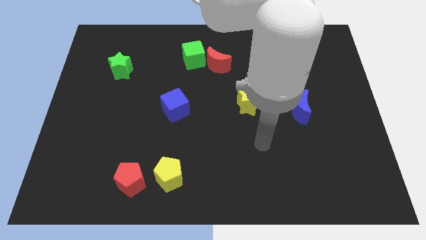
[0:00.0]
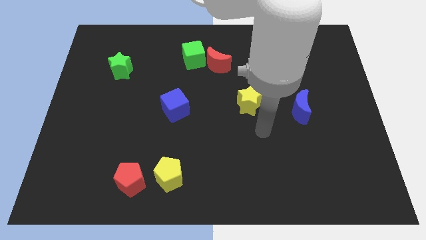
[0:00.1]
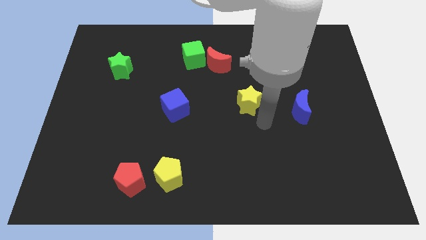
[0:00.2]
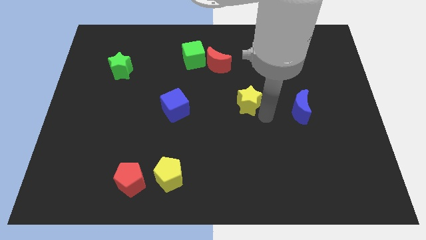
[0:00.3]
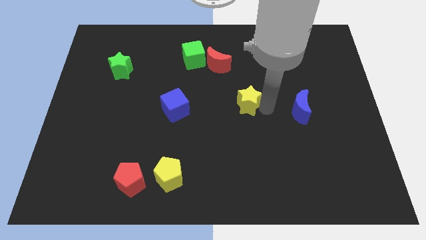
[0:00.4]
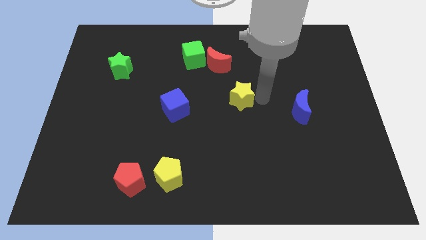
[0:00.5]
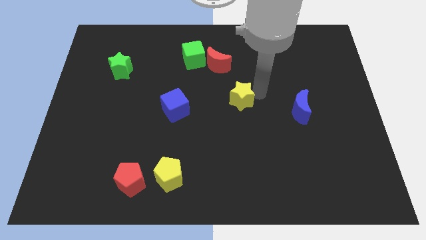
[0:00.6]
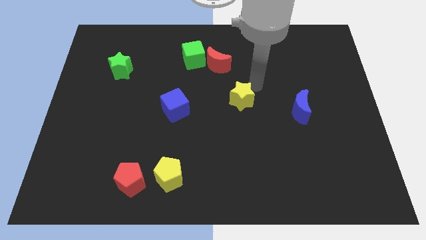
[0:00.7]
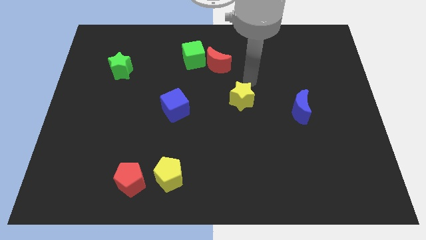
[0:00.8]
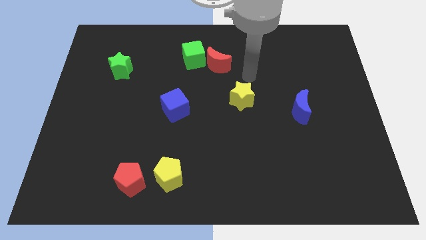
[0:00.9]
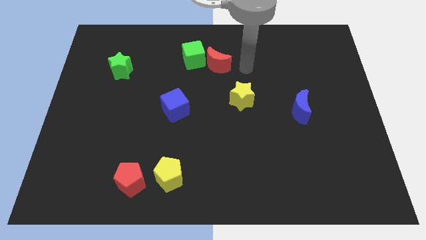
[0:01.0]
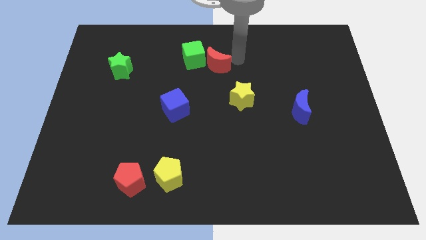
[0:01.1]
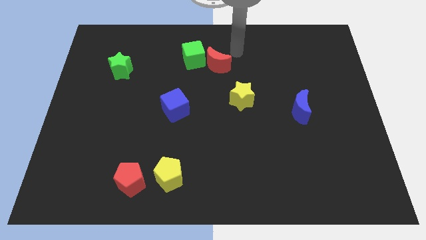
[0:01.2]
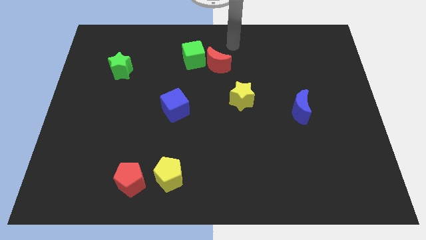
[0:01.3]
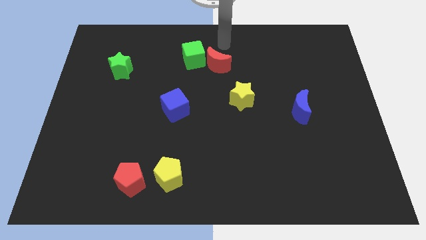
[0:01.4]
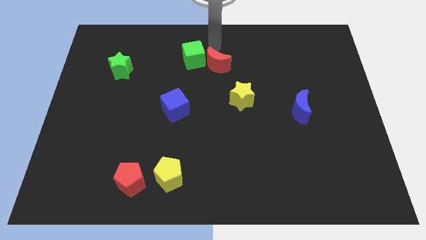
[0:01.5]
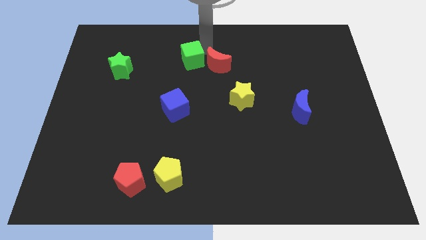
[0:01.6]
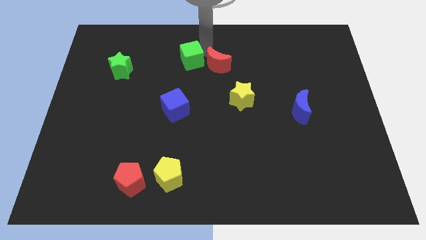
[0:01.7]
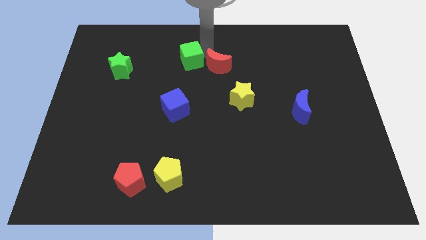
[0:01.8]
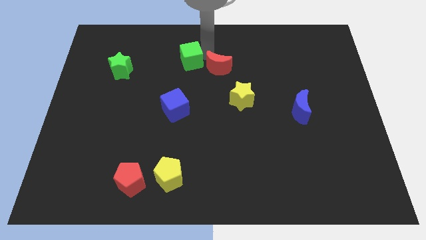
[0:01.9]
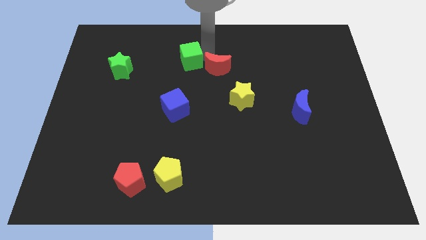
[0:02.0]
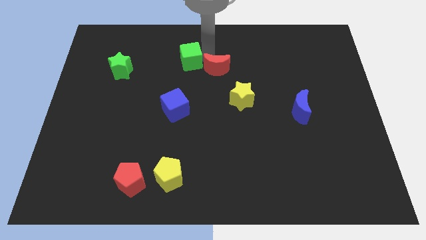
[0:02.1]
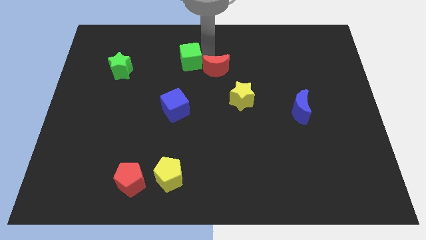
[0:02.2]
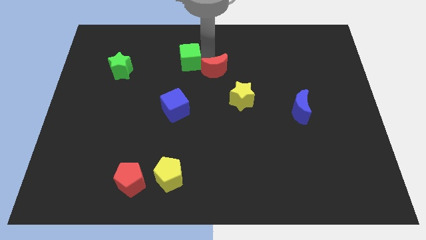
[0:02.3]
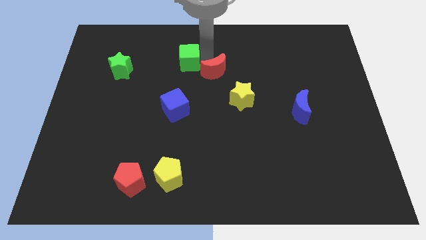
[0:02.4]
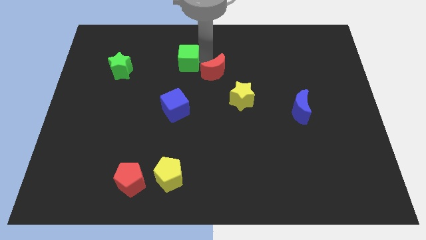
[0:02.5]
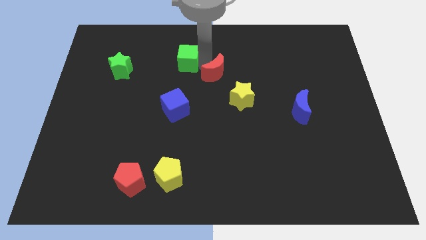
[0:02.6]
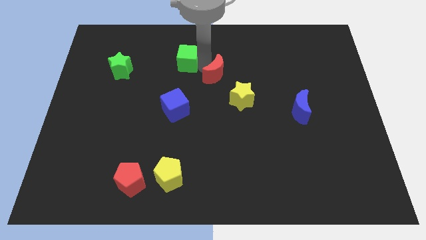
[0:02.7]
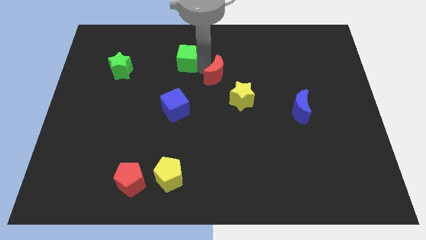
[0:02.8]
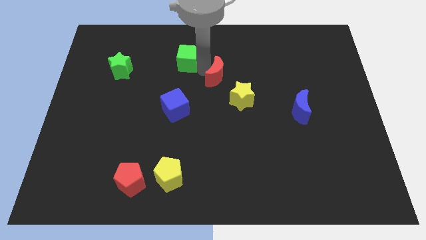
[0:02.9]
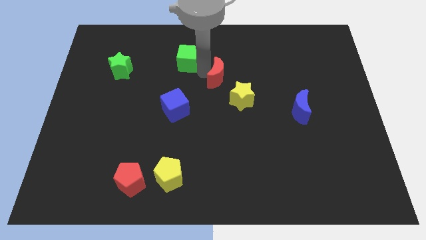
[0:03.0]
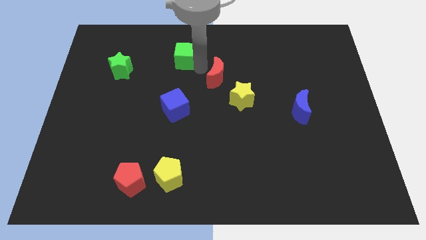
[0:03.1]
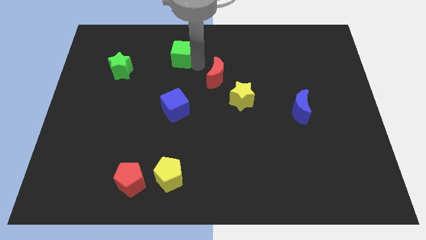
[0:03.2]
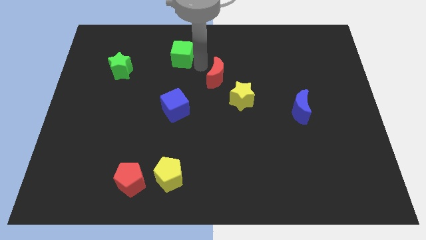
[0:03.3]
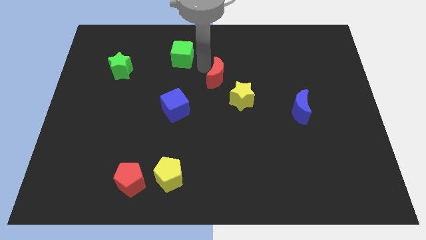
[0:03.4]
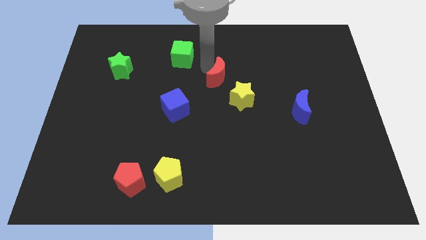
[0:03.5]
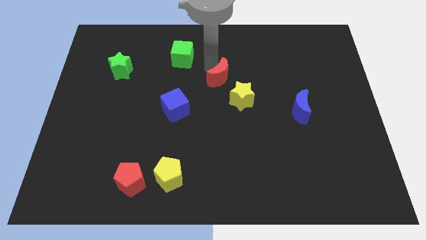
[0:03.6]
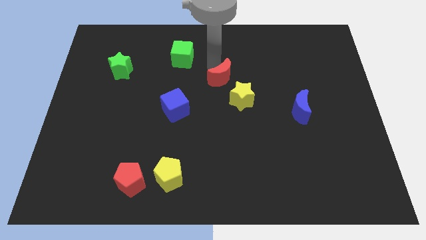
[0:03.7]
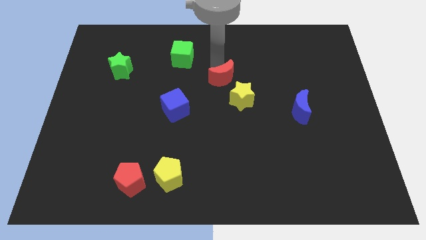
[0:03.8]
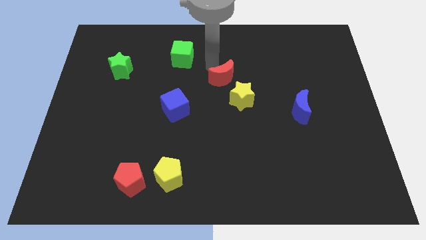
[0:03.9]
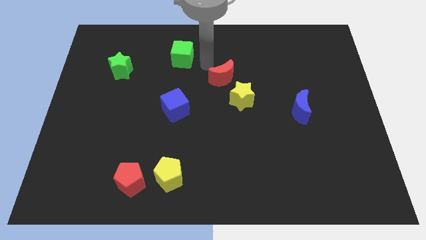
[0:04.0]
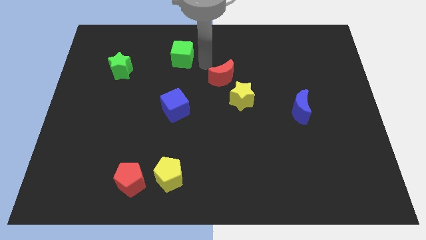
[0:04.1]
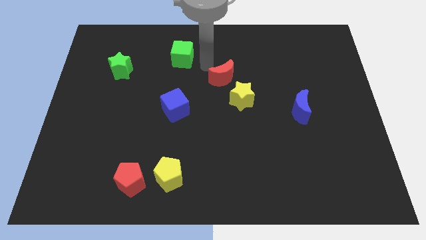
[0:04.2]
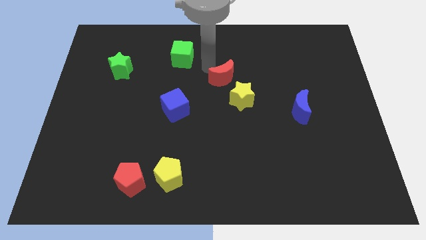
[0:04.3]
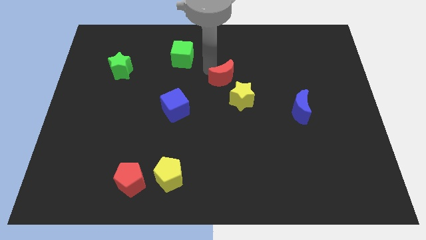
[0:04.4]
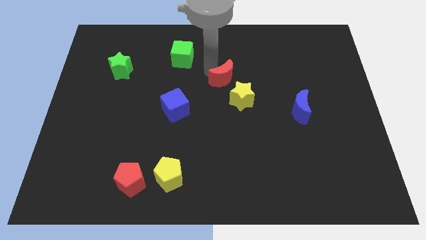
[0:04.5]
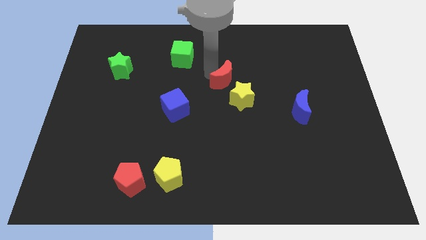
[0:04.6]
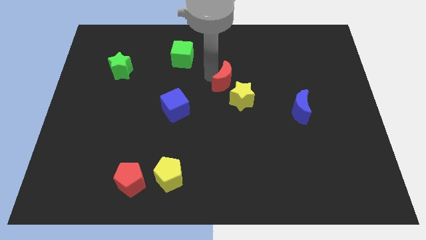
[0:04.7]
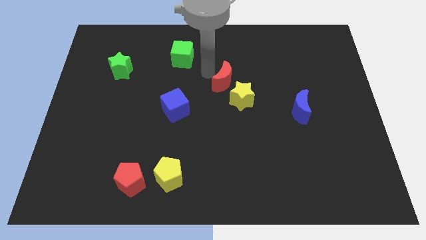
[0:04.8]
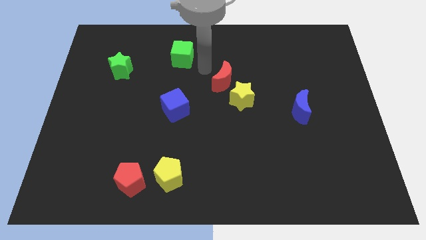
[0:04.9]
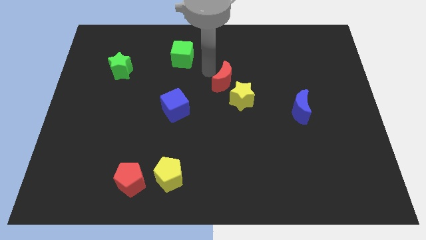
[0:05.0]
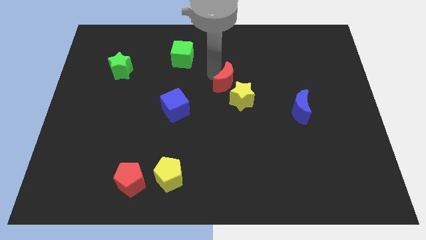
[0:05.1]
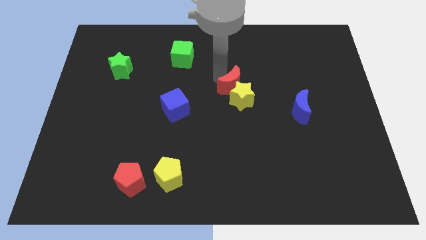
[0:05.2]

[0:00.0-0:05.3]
push the red moon towards the yellow star

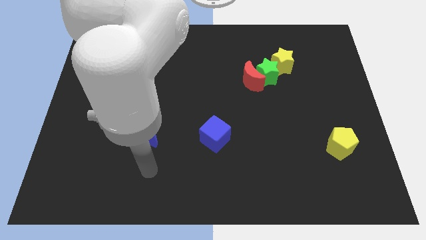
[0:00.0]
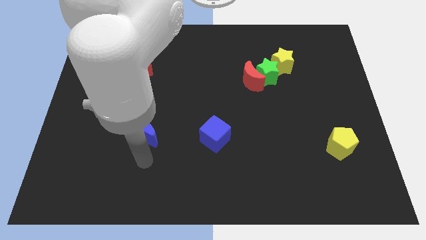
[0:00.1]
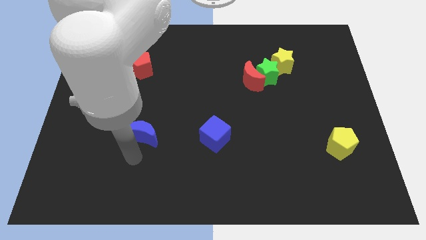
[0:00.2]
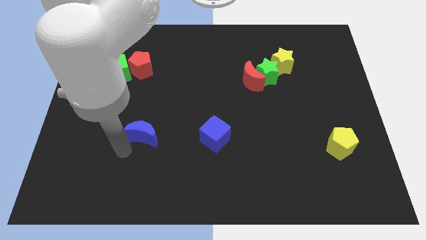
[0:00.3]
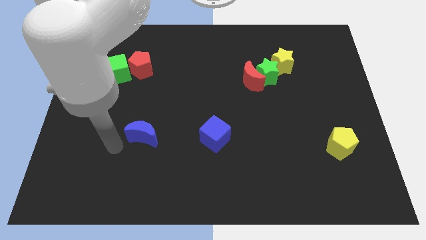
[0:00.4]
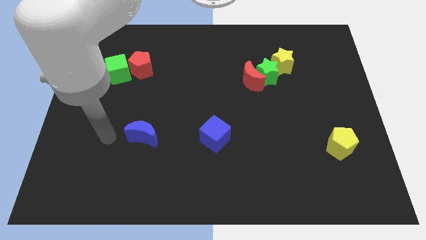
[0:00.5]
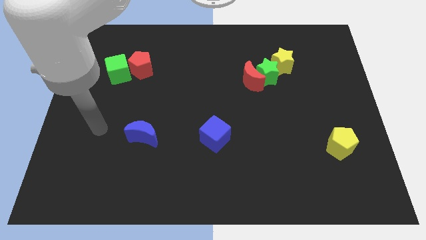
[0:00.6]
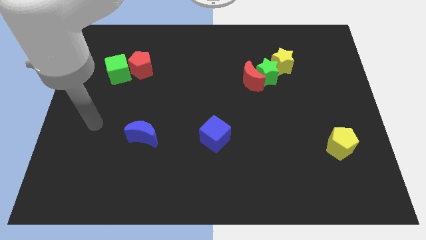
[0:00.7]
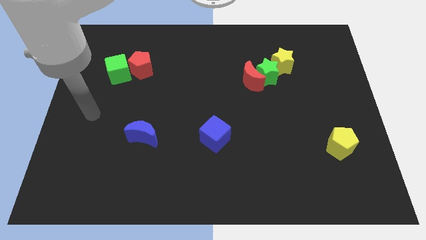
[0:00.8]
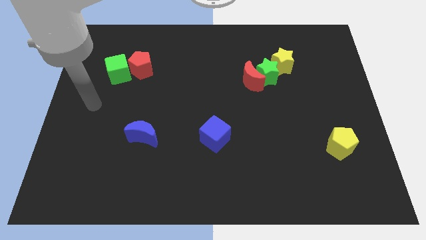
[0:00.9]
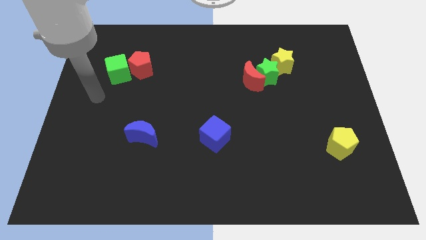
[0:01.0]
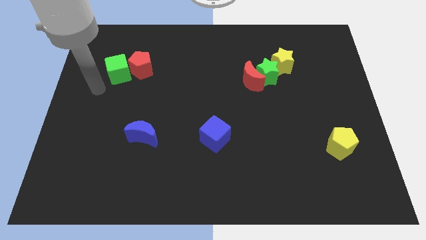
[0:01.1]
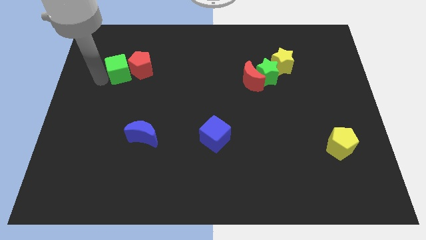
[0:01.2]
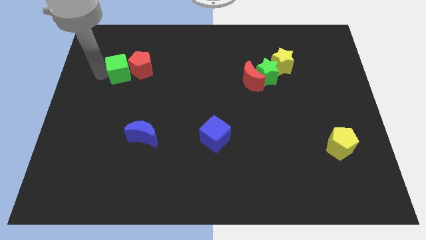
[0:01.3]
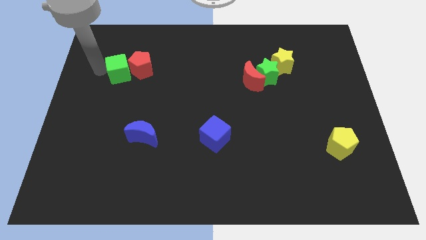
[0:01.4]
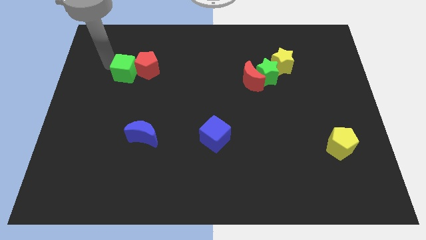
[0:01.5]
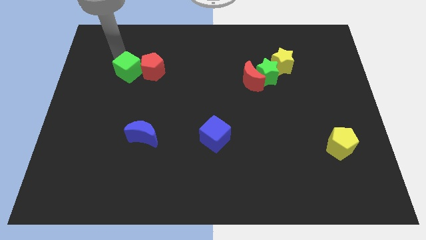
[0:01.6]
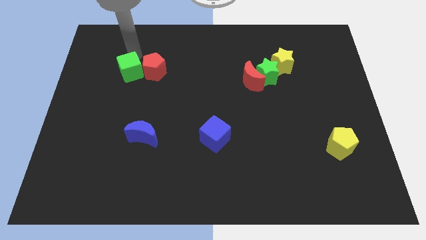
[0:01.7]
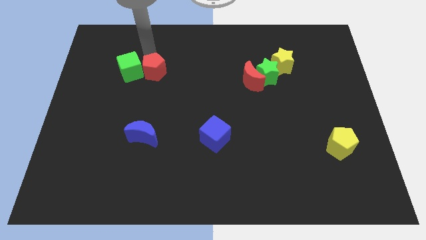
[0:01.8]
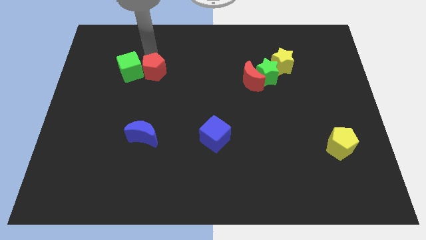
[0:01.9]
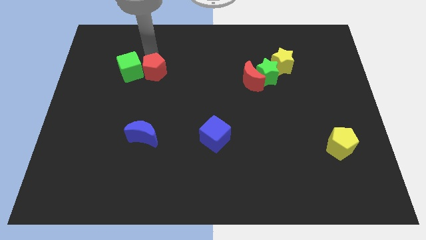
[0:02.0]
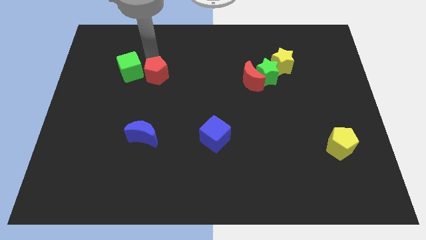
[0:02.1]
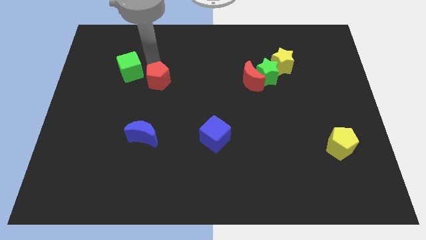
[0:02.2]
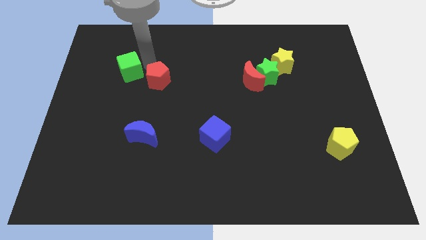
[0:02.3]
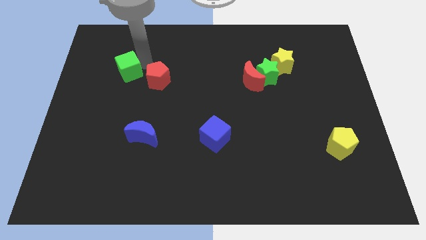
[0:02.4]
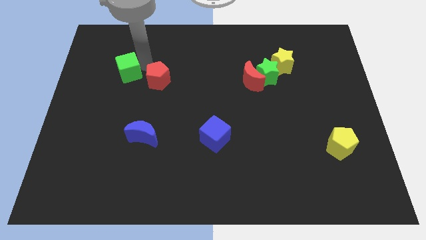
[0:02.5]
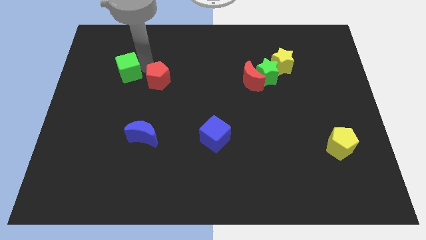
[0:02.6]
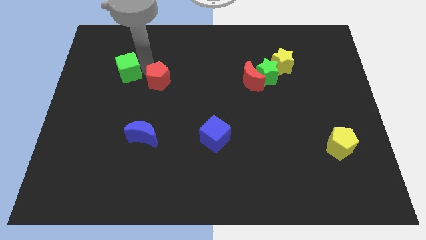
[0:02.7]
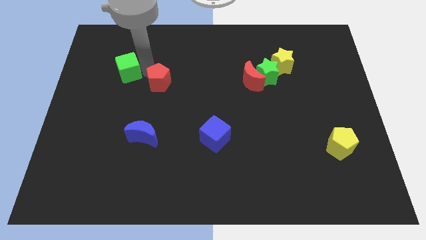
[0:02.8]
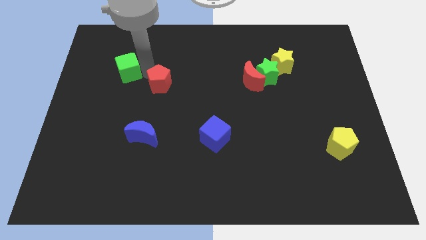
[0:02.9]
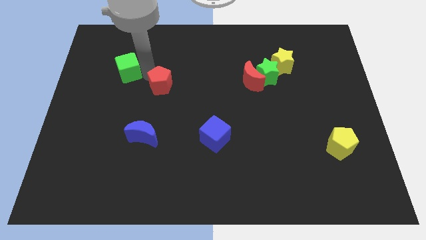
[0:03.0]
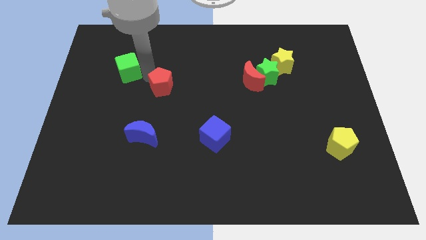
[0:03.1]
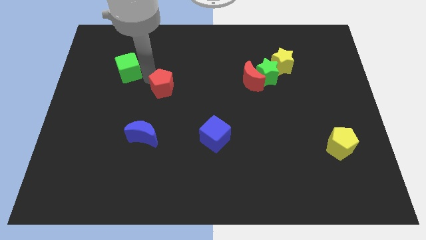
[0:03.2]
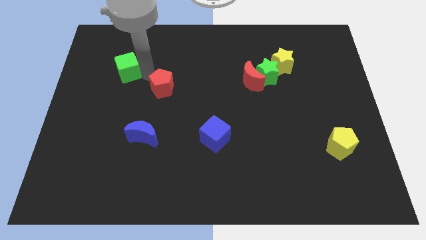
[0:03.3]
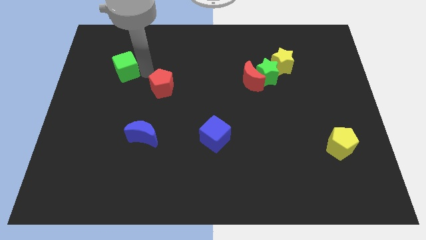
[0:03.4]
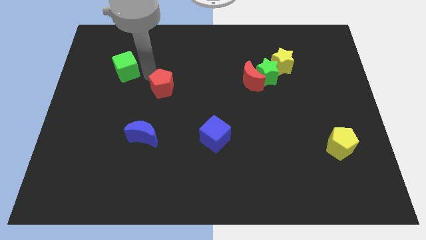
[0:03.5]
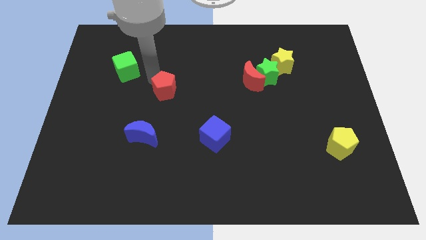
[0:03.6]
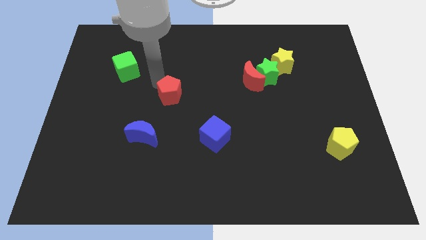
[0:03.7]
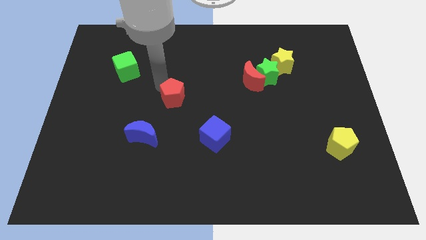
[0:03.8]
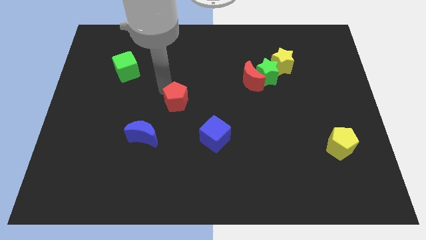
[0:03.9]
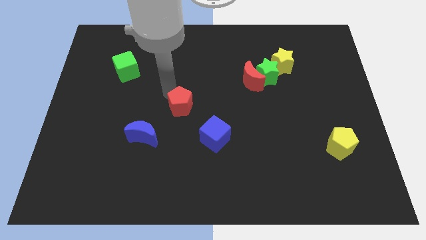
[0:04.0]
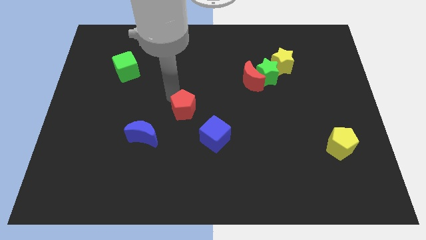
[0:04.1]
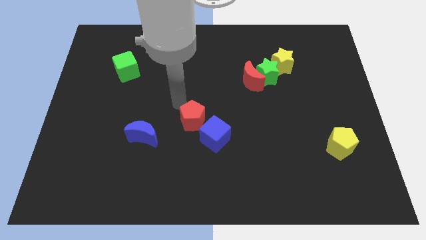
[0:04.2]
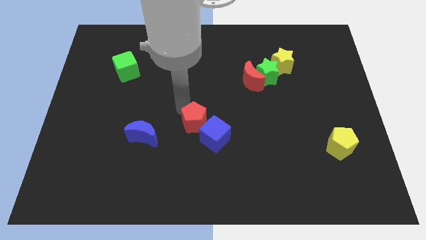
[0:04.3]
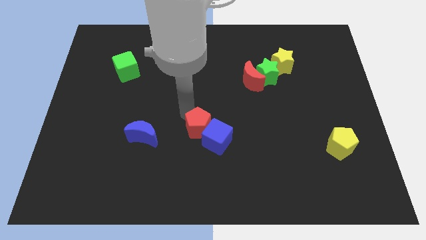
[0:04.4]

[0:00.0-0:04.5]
move the red pentagon to the blue cube
